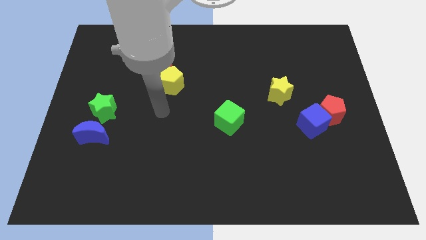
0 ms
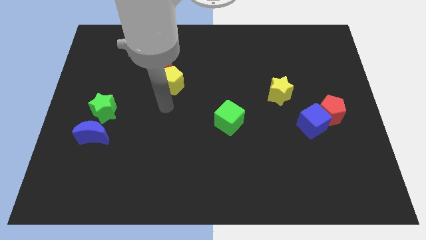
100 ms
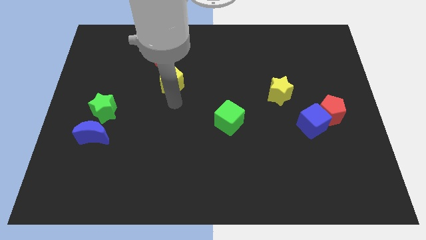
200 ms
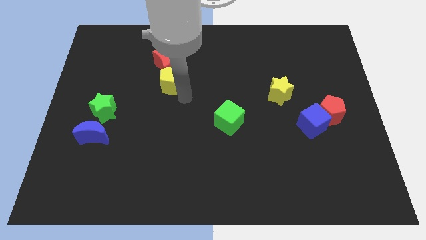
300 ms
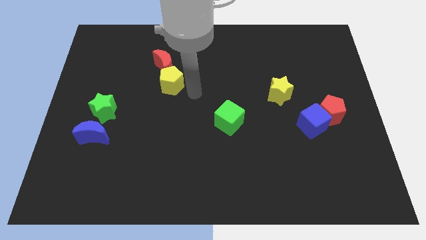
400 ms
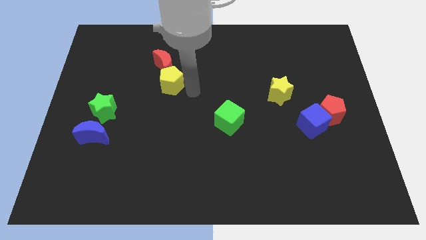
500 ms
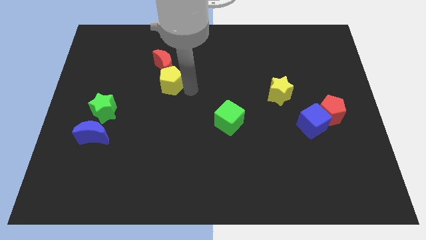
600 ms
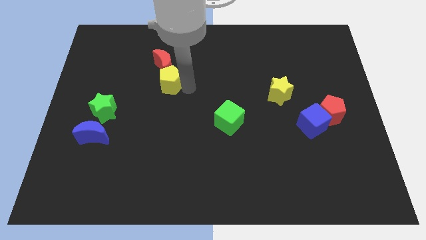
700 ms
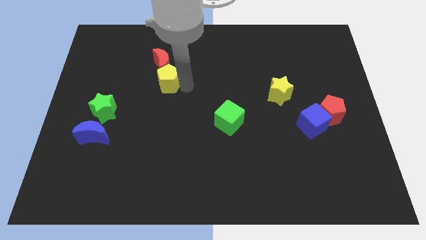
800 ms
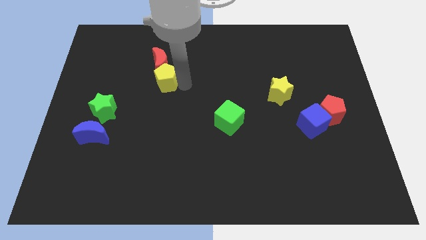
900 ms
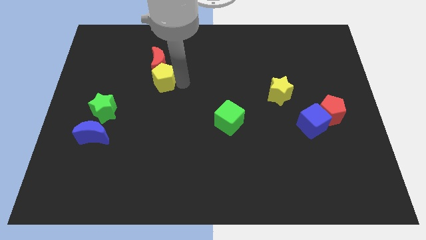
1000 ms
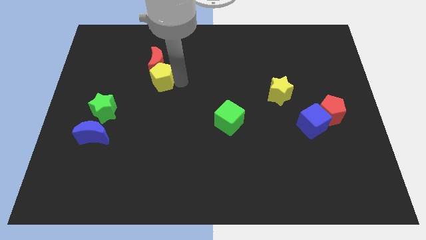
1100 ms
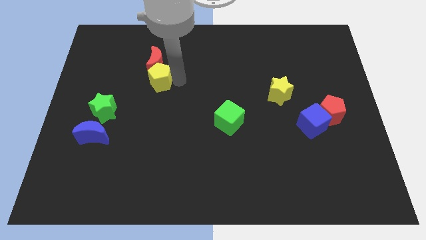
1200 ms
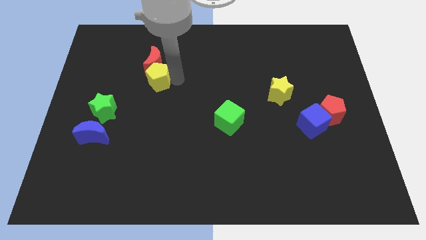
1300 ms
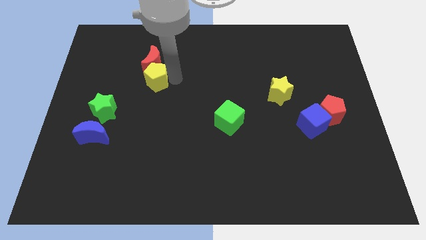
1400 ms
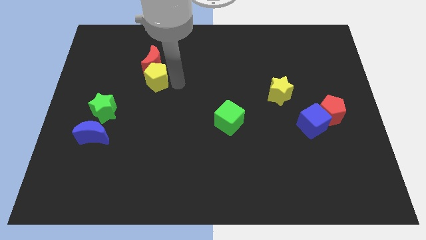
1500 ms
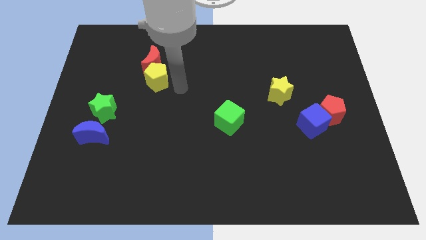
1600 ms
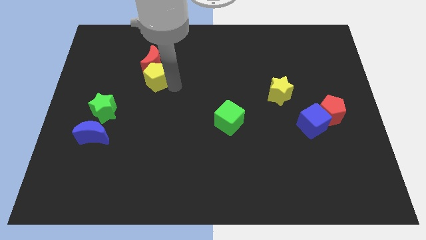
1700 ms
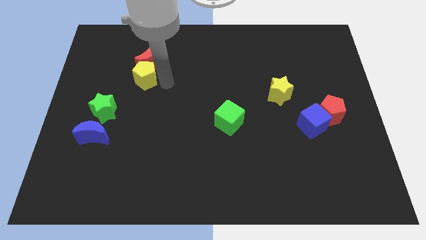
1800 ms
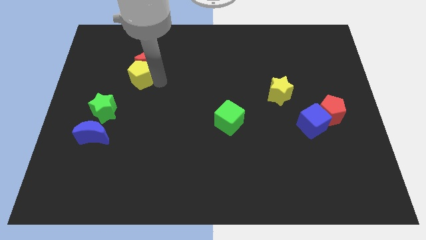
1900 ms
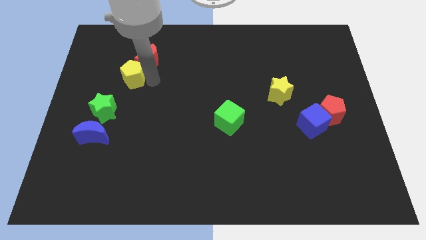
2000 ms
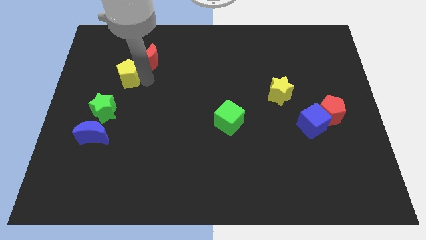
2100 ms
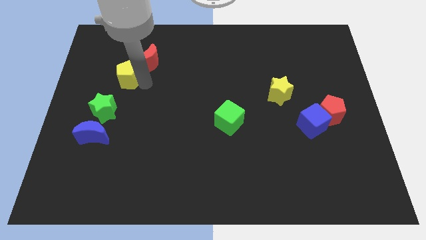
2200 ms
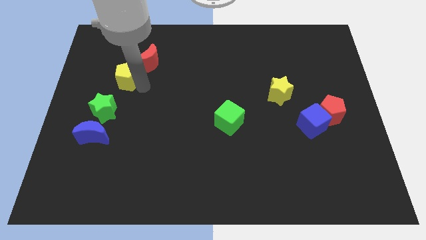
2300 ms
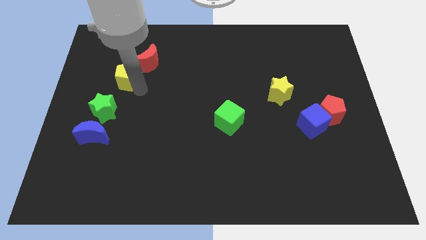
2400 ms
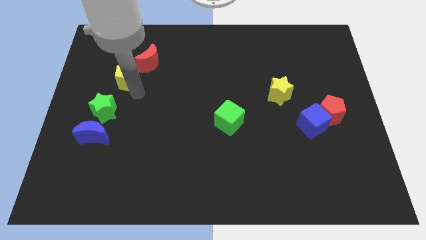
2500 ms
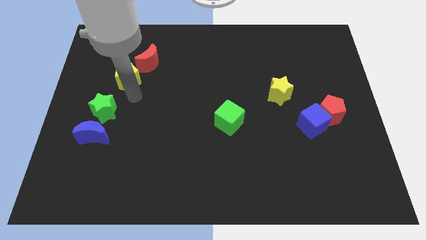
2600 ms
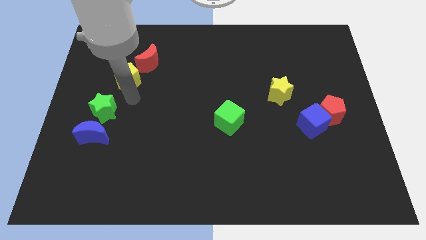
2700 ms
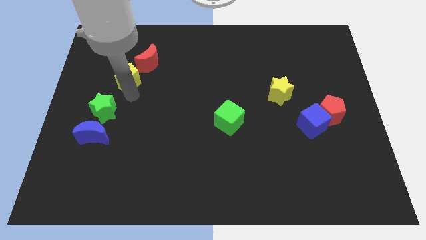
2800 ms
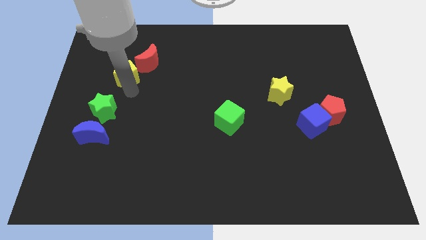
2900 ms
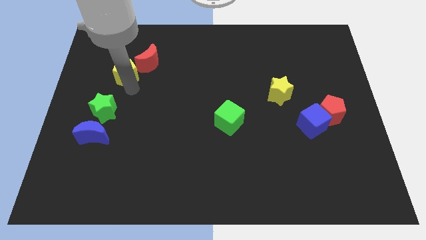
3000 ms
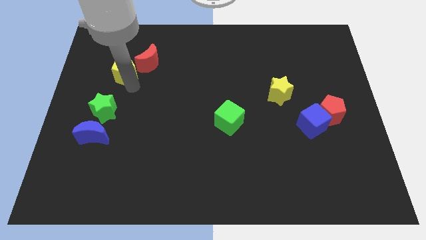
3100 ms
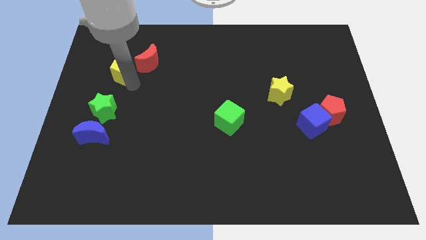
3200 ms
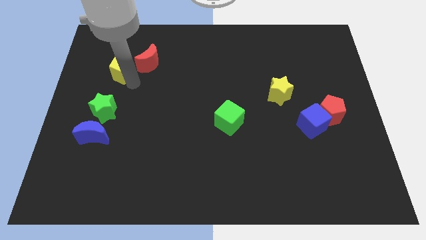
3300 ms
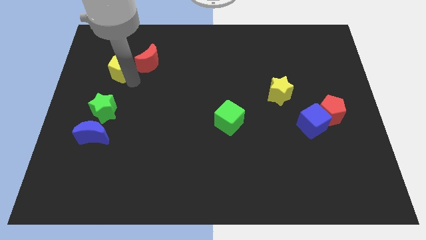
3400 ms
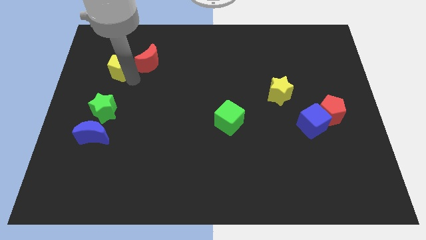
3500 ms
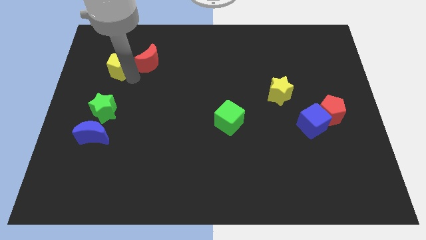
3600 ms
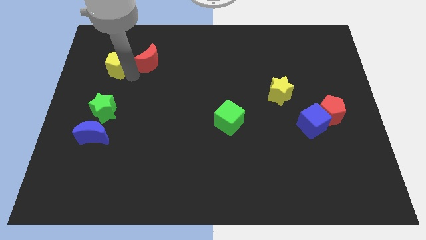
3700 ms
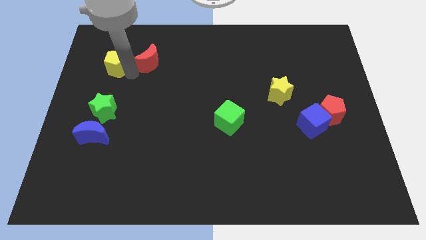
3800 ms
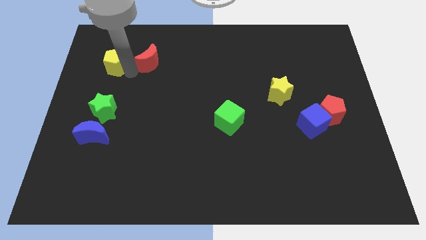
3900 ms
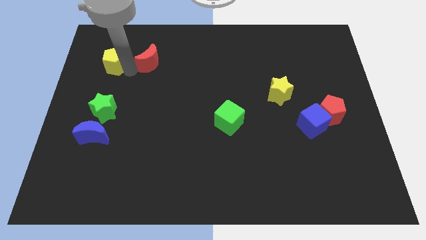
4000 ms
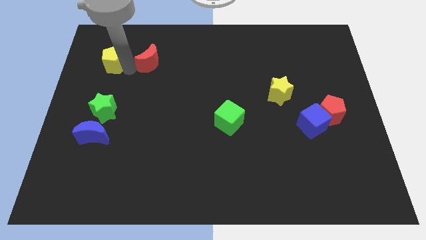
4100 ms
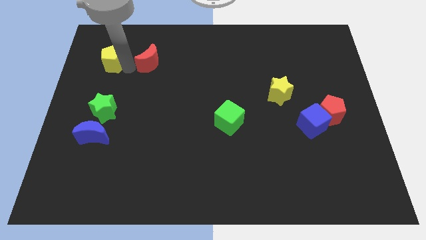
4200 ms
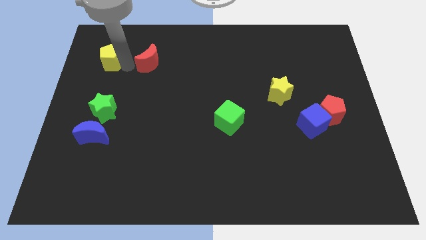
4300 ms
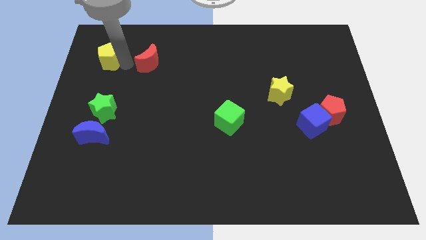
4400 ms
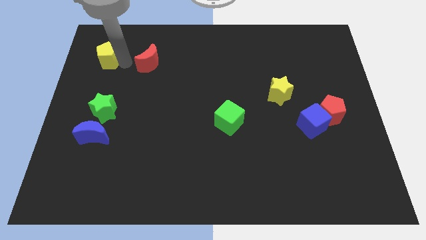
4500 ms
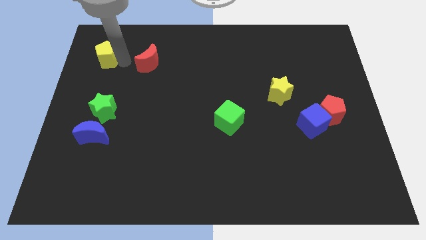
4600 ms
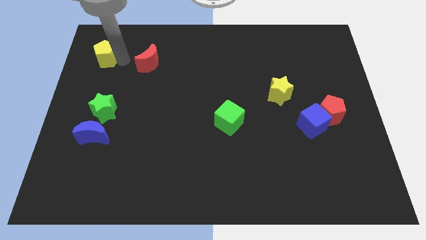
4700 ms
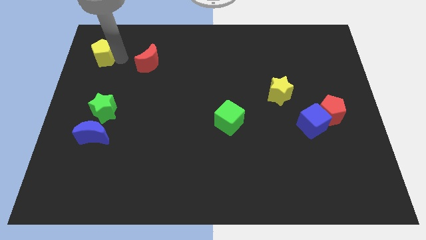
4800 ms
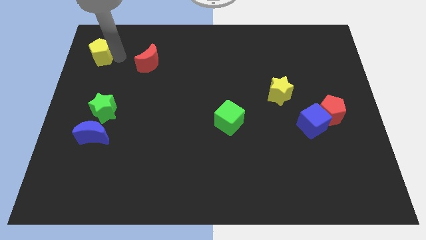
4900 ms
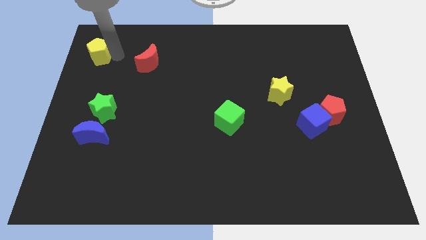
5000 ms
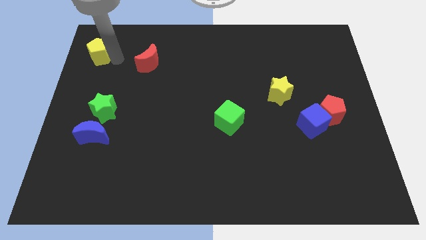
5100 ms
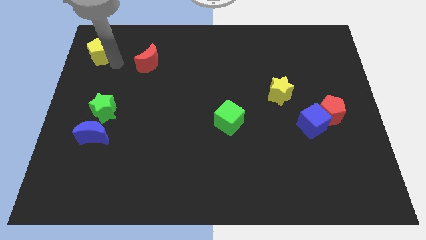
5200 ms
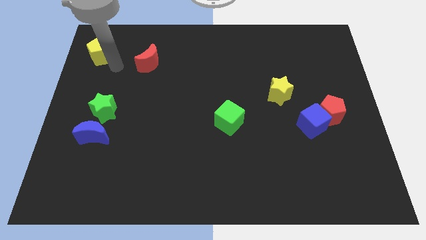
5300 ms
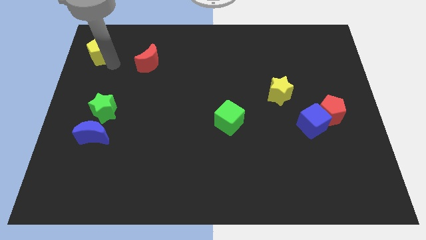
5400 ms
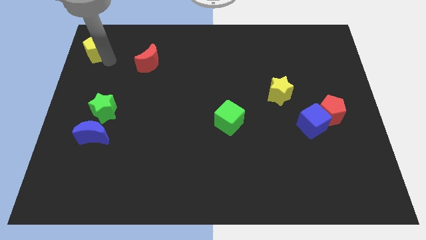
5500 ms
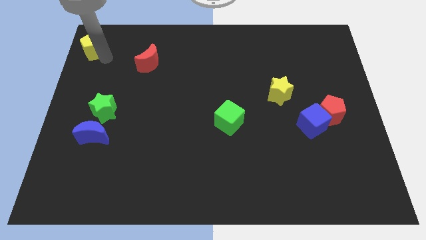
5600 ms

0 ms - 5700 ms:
move the yellow pentagon to the top left

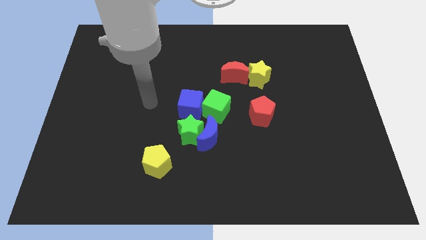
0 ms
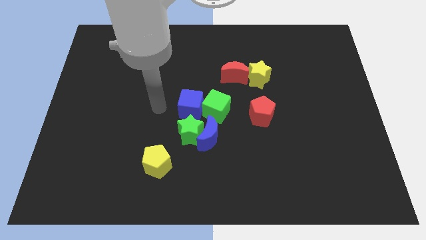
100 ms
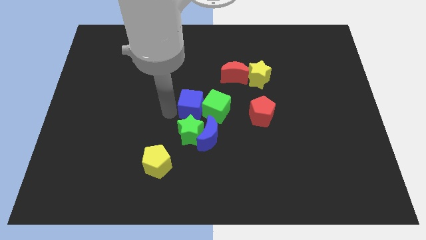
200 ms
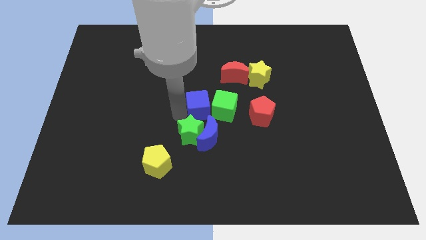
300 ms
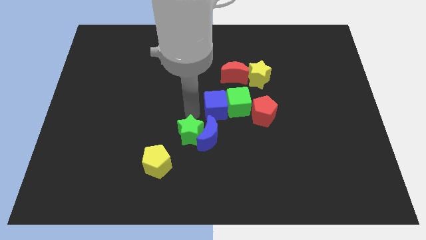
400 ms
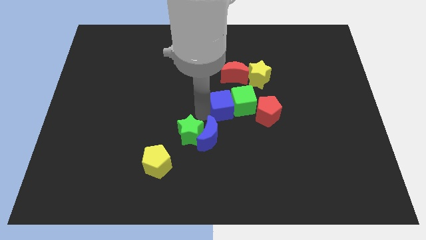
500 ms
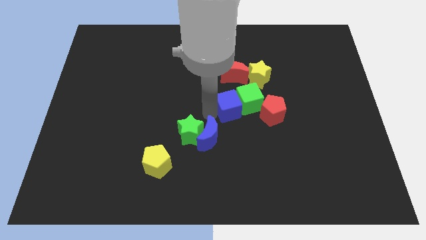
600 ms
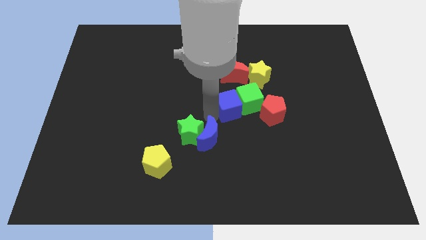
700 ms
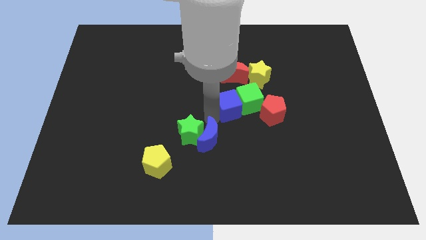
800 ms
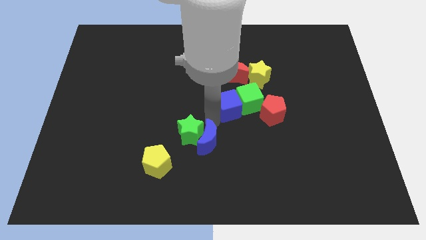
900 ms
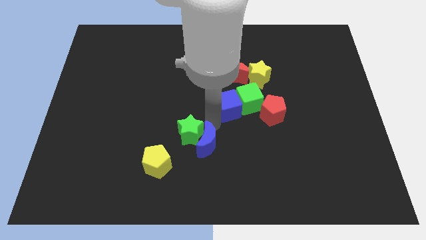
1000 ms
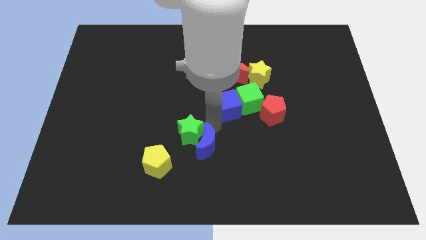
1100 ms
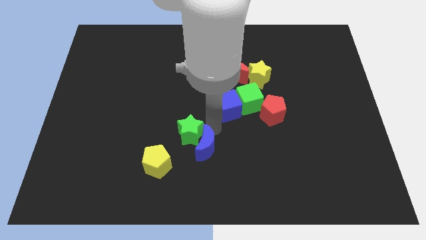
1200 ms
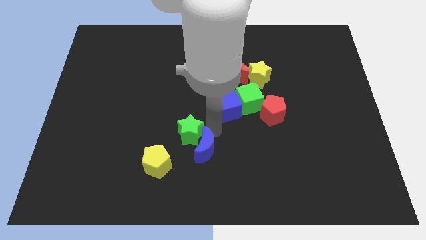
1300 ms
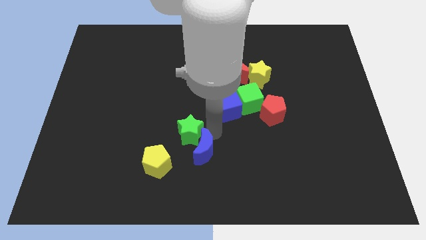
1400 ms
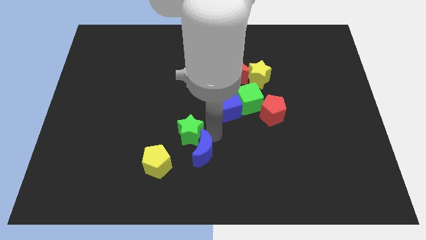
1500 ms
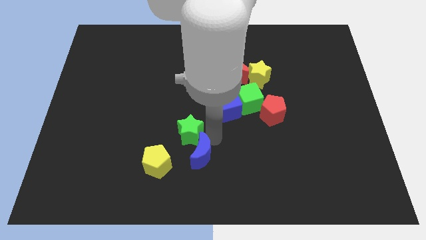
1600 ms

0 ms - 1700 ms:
move the blue moon to the bottom side
